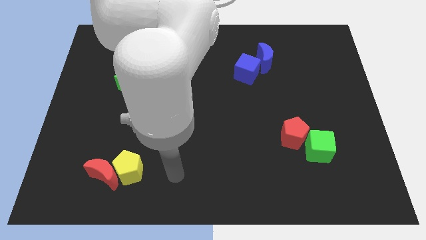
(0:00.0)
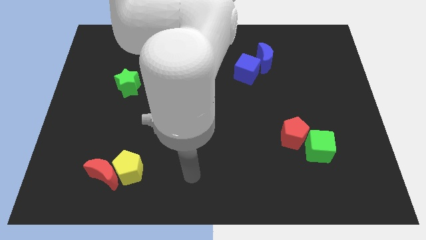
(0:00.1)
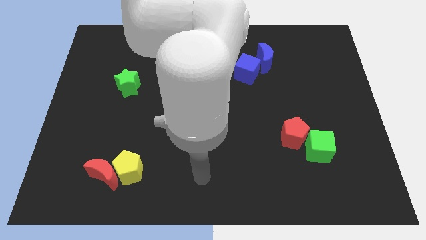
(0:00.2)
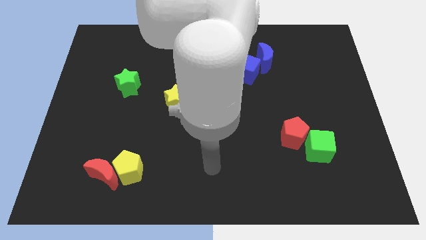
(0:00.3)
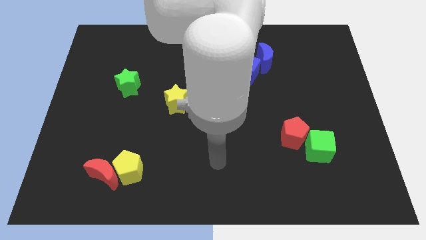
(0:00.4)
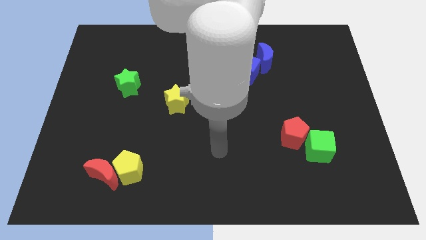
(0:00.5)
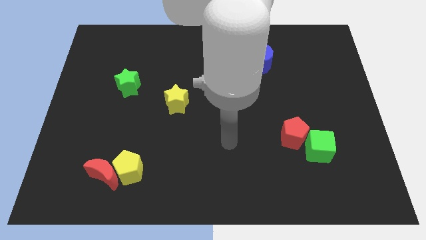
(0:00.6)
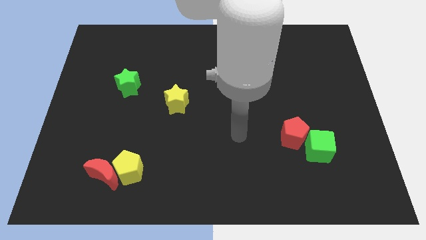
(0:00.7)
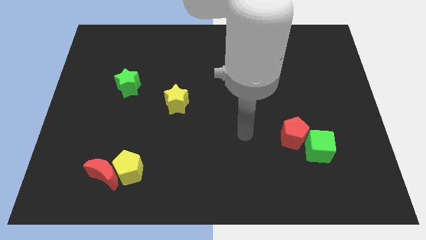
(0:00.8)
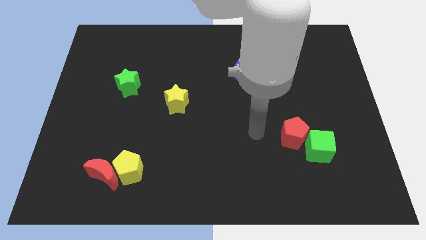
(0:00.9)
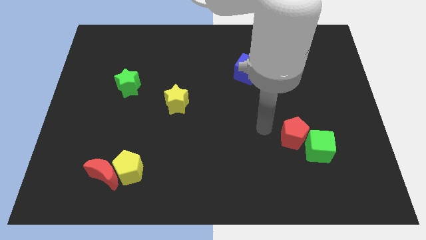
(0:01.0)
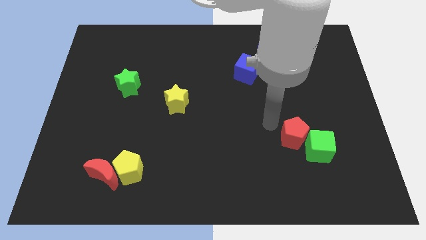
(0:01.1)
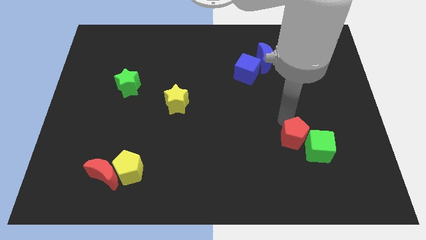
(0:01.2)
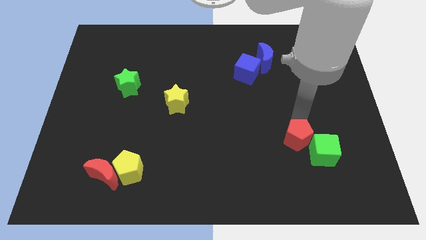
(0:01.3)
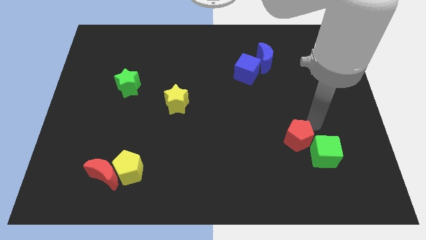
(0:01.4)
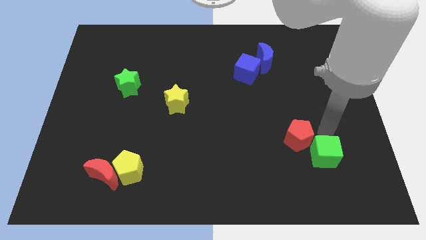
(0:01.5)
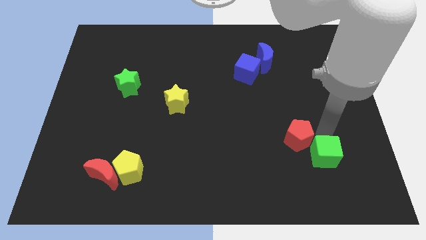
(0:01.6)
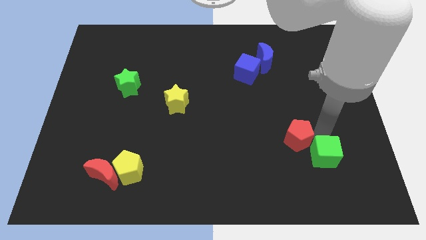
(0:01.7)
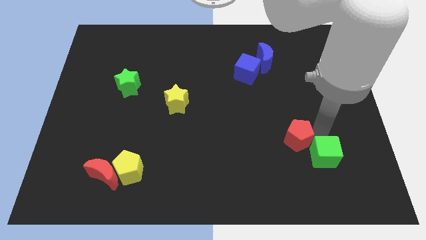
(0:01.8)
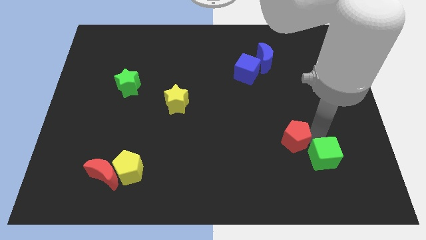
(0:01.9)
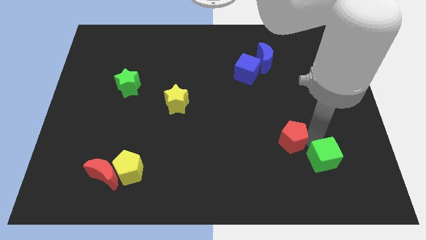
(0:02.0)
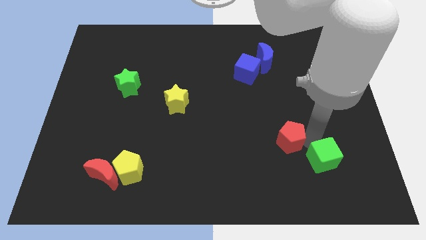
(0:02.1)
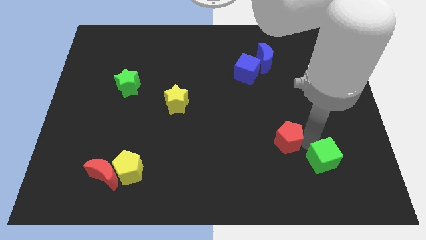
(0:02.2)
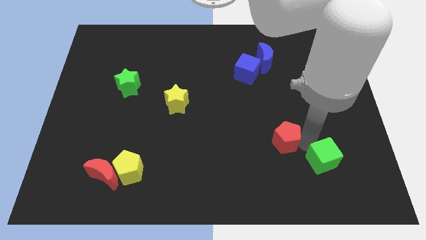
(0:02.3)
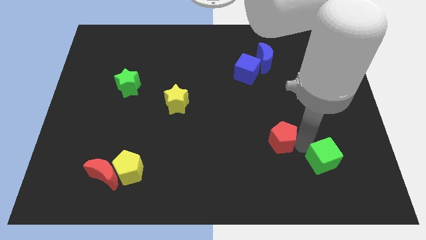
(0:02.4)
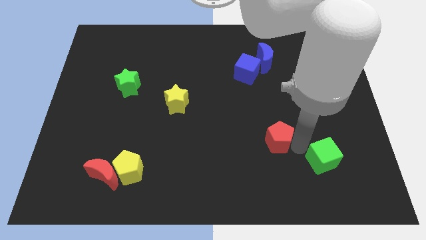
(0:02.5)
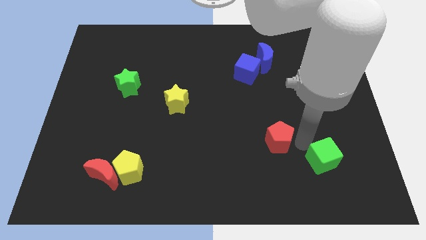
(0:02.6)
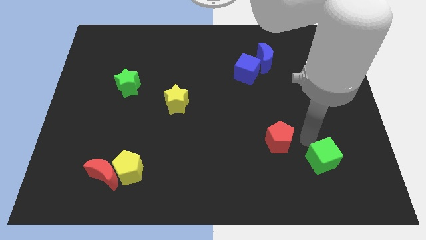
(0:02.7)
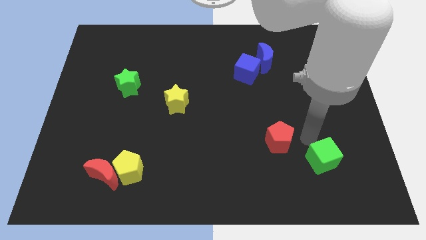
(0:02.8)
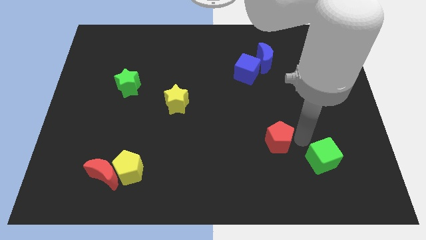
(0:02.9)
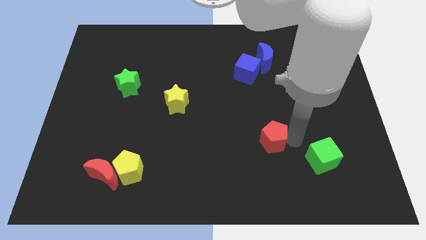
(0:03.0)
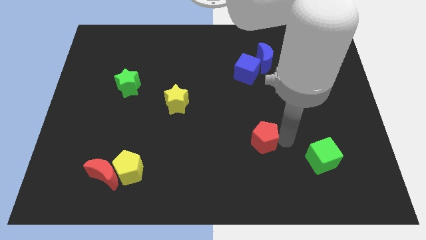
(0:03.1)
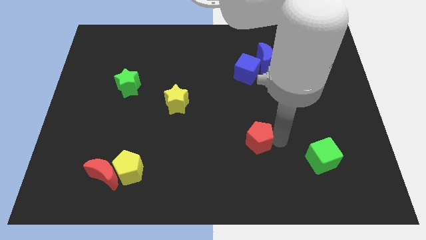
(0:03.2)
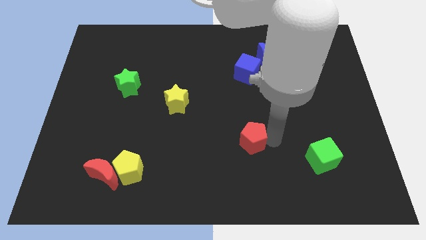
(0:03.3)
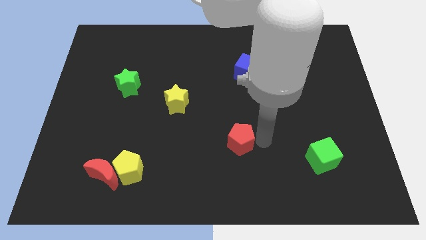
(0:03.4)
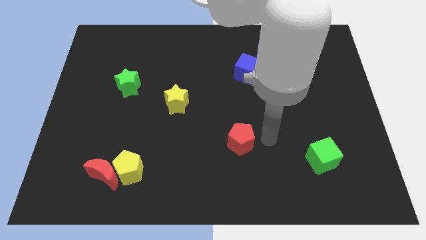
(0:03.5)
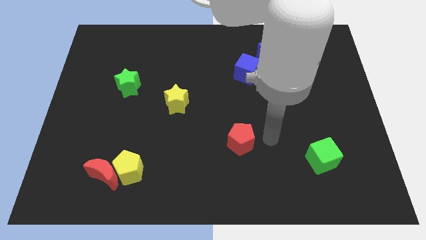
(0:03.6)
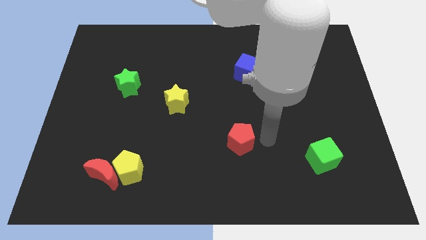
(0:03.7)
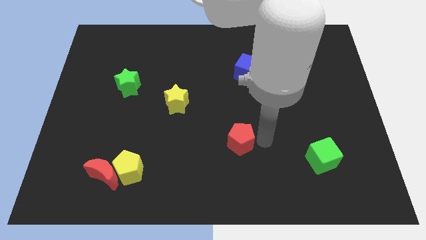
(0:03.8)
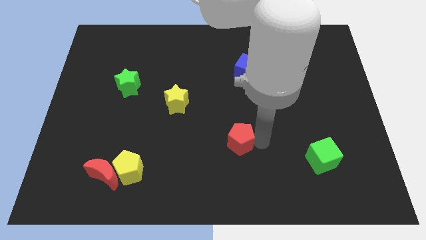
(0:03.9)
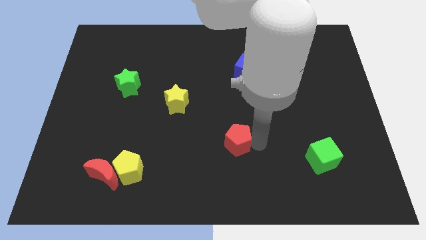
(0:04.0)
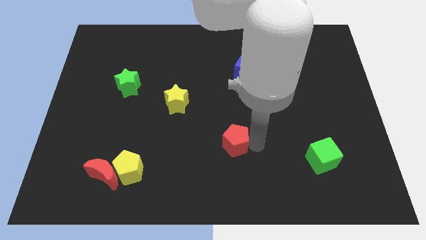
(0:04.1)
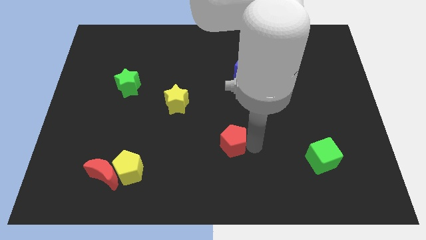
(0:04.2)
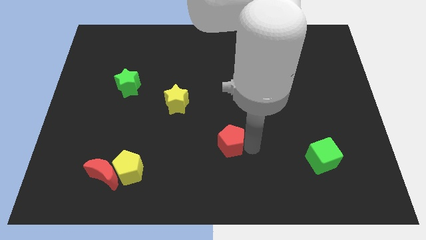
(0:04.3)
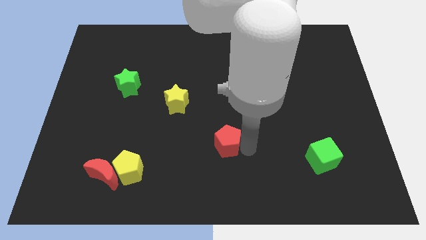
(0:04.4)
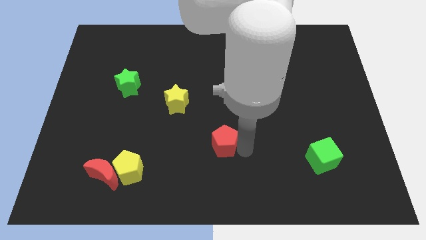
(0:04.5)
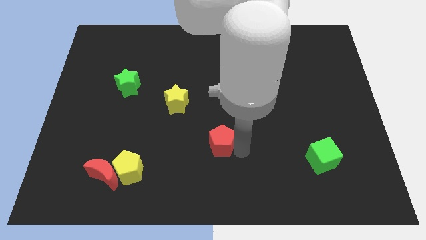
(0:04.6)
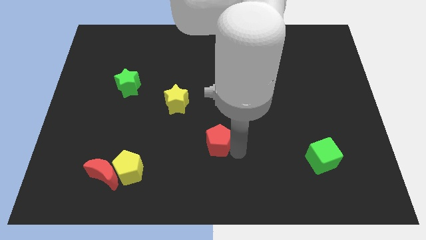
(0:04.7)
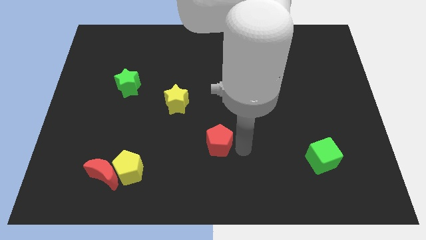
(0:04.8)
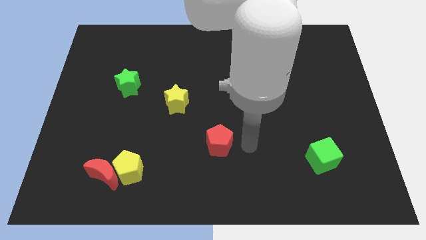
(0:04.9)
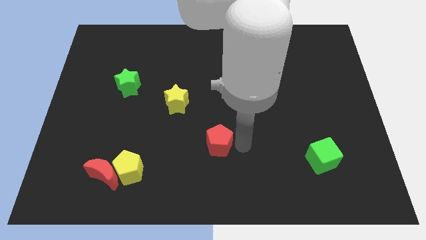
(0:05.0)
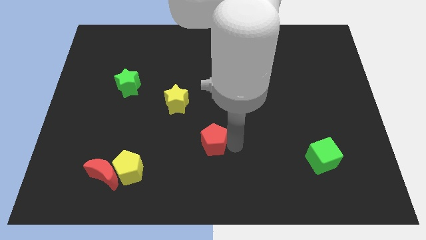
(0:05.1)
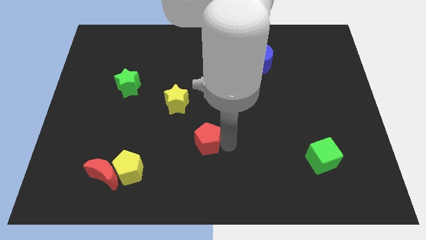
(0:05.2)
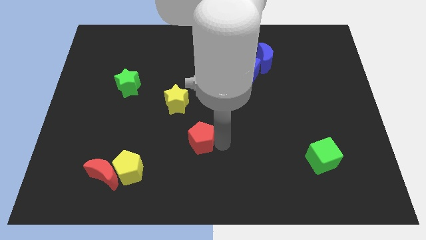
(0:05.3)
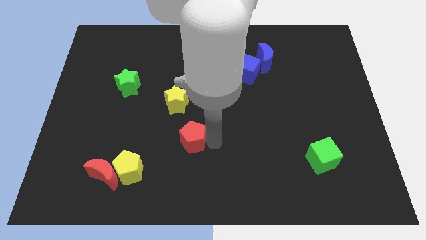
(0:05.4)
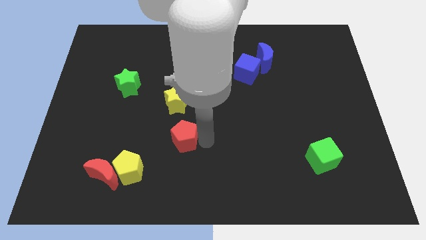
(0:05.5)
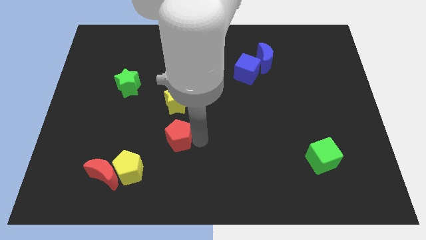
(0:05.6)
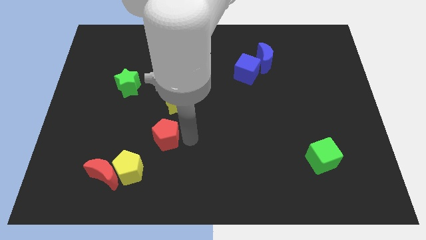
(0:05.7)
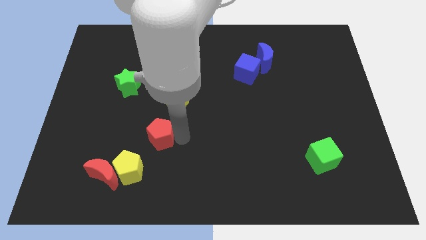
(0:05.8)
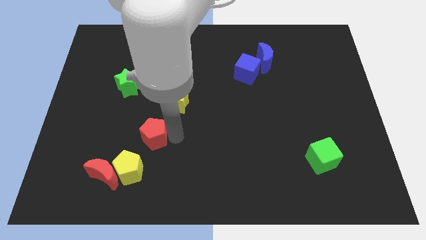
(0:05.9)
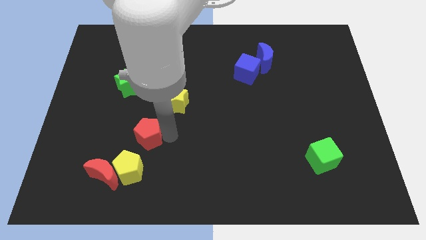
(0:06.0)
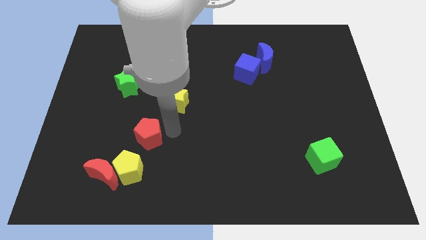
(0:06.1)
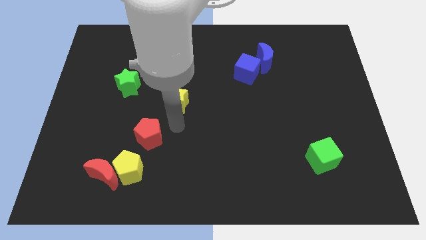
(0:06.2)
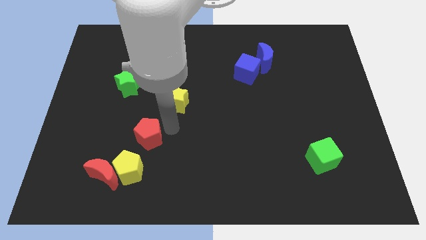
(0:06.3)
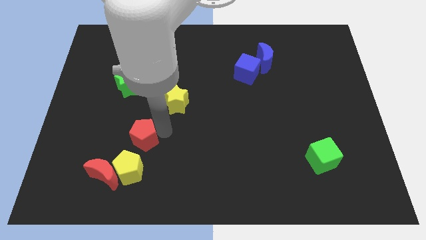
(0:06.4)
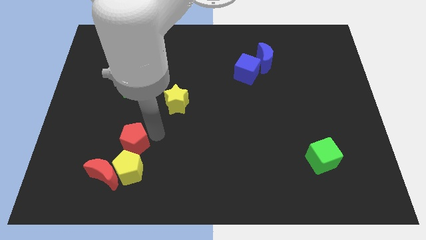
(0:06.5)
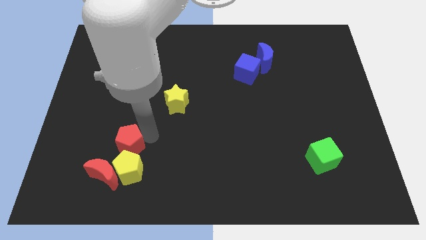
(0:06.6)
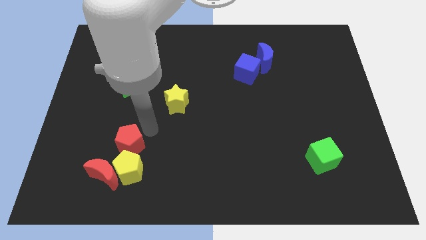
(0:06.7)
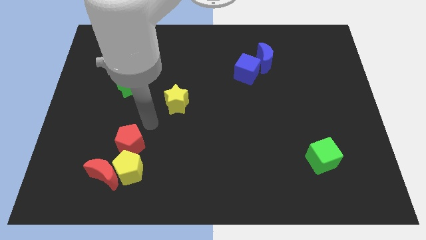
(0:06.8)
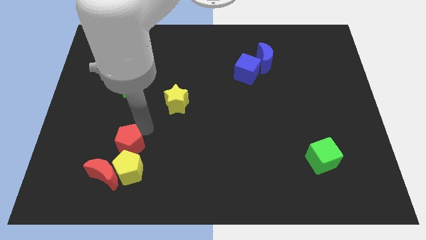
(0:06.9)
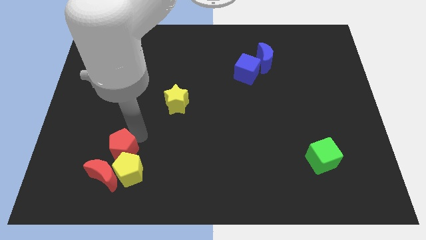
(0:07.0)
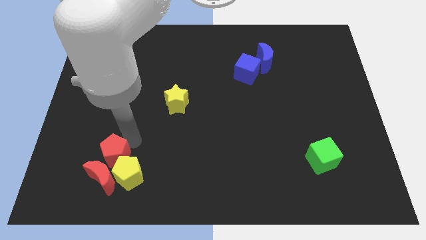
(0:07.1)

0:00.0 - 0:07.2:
slide the red pentagon to the red moon

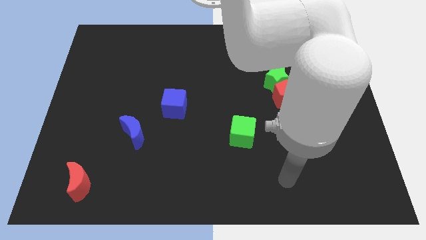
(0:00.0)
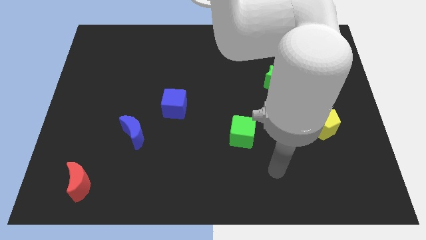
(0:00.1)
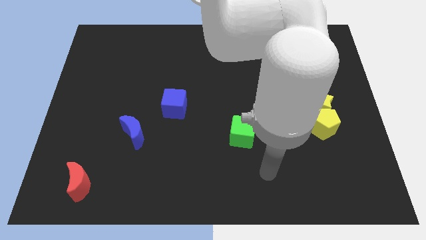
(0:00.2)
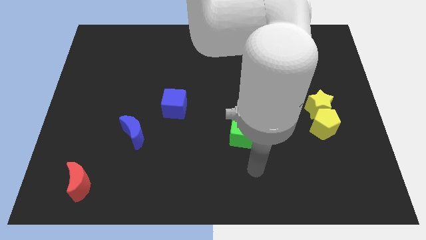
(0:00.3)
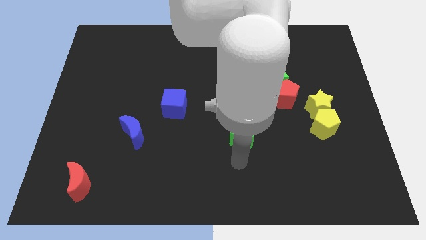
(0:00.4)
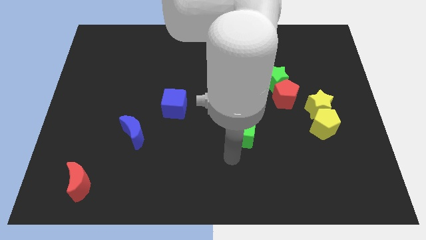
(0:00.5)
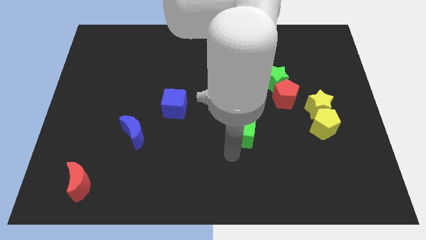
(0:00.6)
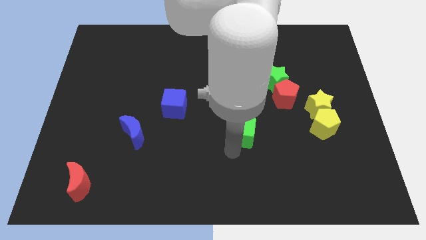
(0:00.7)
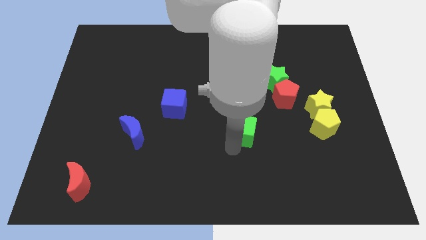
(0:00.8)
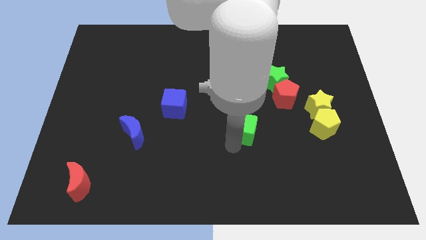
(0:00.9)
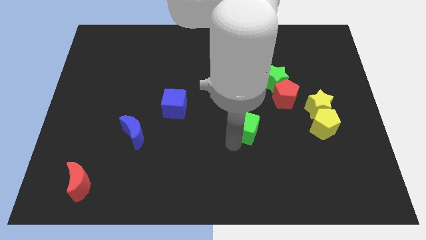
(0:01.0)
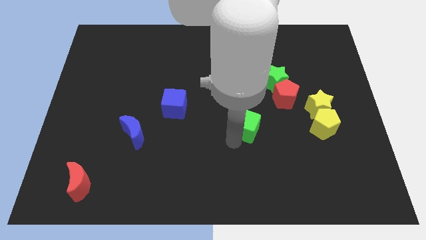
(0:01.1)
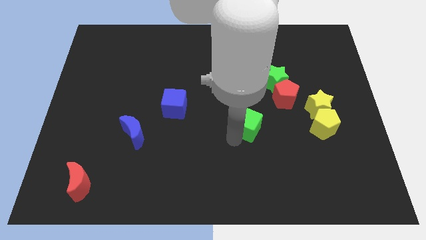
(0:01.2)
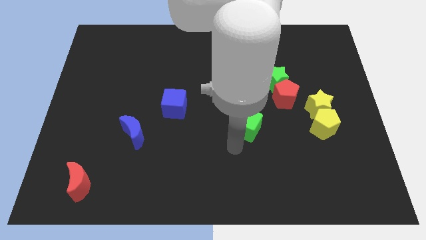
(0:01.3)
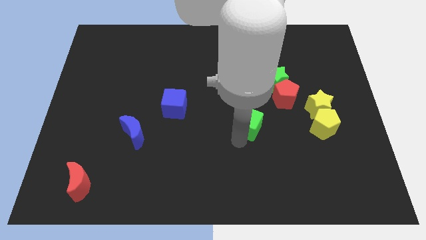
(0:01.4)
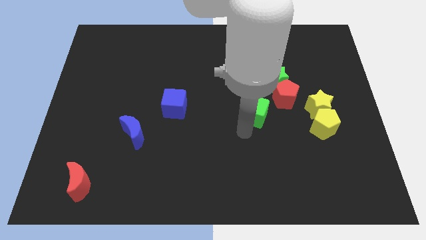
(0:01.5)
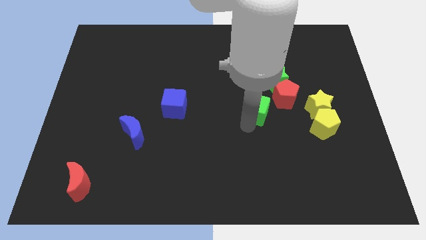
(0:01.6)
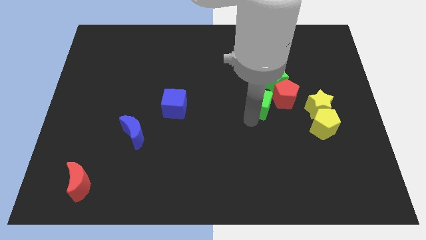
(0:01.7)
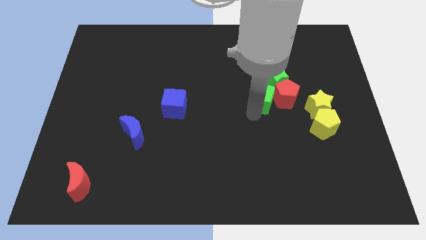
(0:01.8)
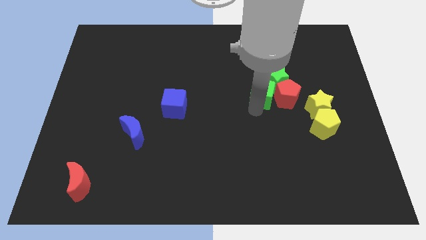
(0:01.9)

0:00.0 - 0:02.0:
put the green cube close to the green star
